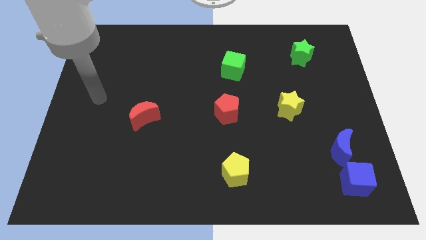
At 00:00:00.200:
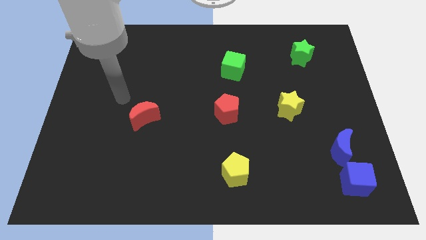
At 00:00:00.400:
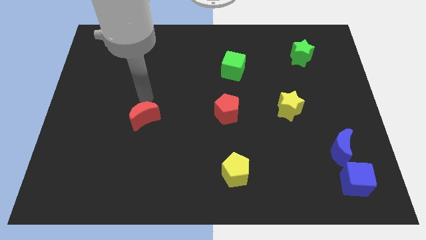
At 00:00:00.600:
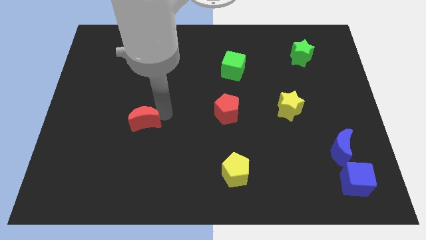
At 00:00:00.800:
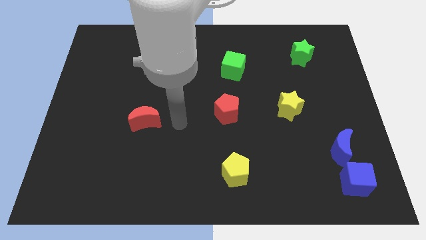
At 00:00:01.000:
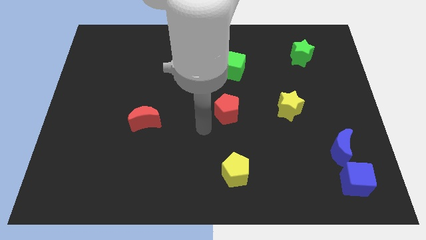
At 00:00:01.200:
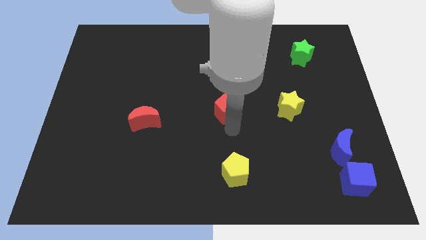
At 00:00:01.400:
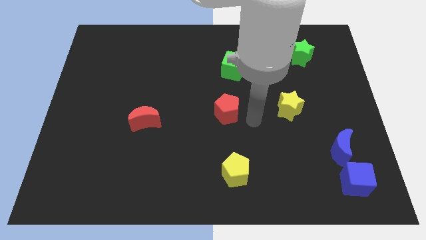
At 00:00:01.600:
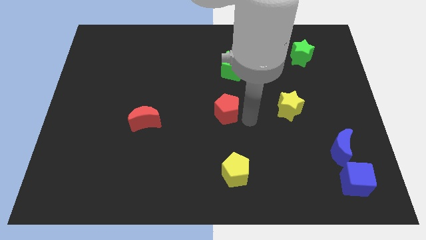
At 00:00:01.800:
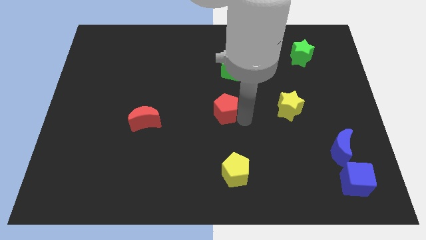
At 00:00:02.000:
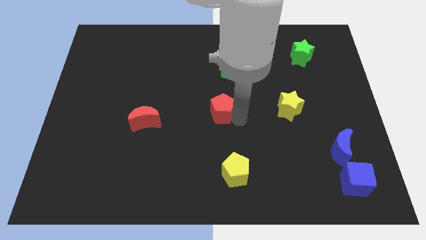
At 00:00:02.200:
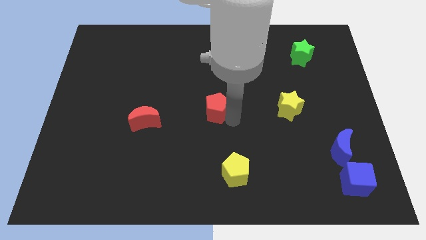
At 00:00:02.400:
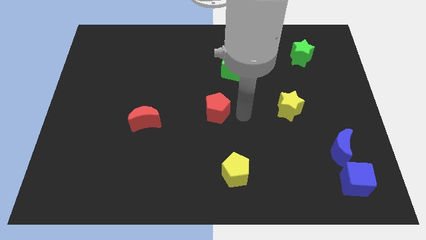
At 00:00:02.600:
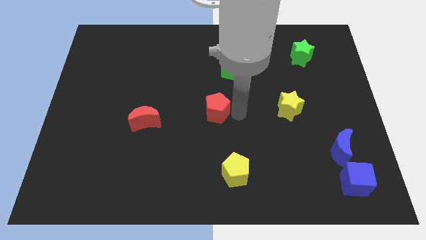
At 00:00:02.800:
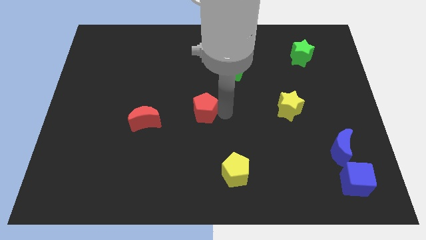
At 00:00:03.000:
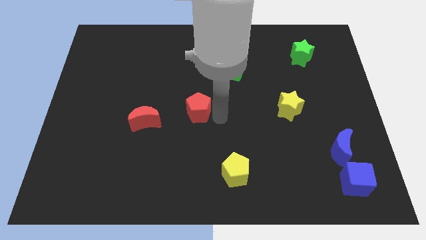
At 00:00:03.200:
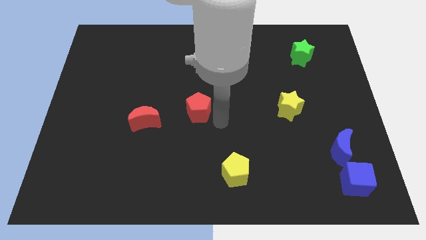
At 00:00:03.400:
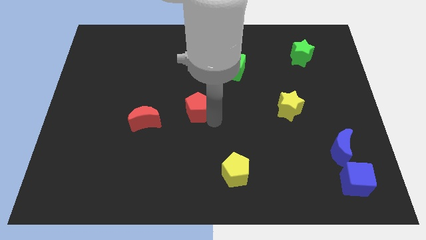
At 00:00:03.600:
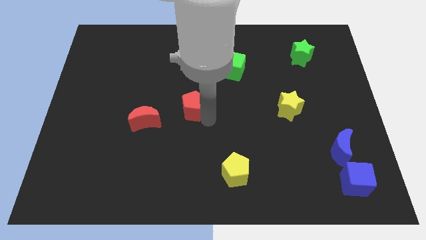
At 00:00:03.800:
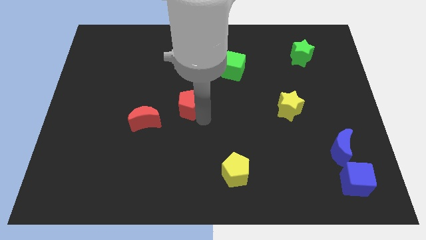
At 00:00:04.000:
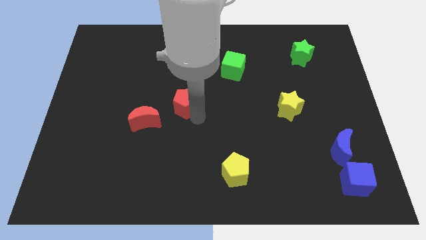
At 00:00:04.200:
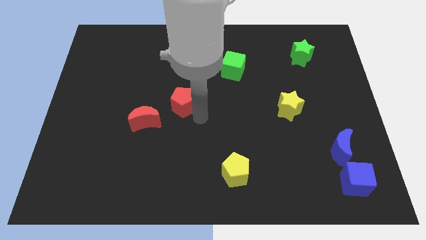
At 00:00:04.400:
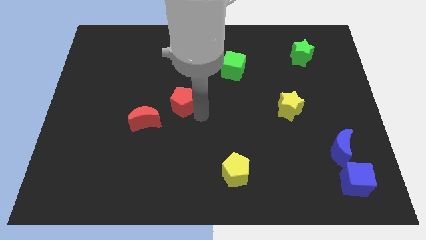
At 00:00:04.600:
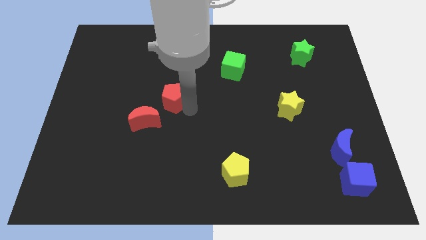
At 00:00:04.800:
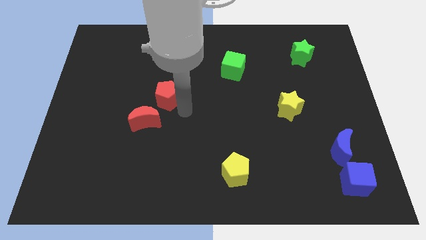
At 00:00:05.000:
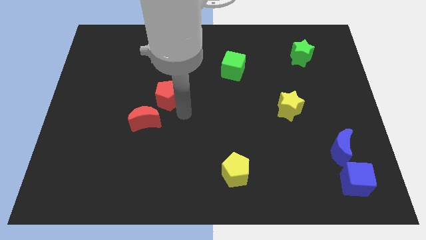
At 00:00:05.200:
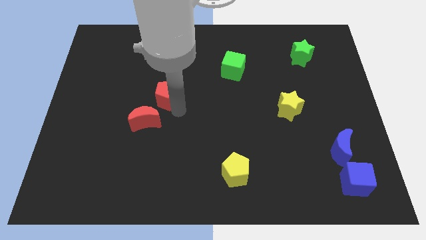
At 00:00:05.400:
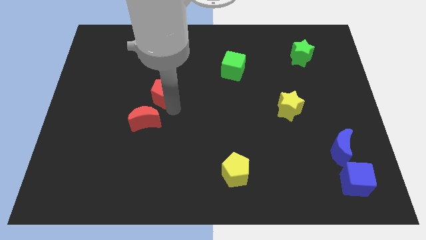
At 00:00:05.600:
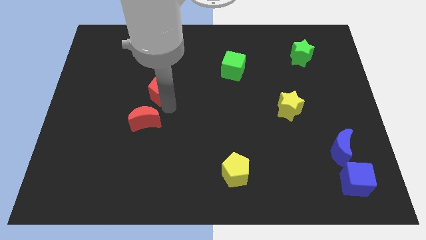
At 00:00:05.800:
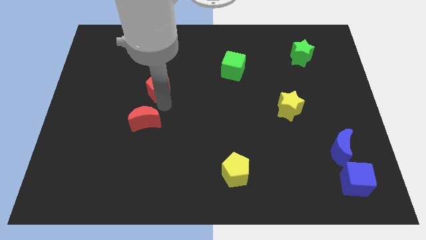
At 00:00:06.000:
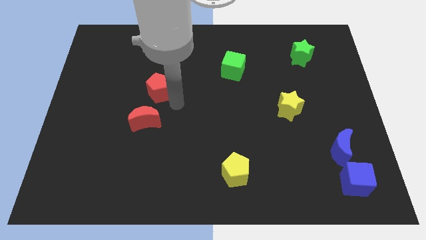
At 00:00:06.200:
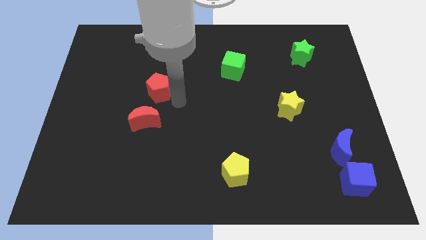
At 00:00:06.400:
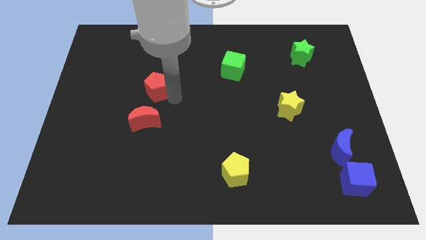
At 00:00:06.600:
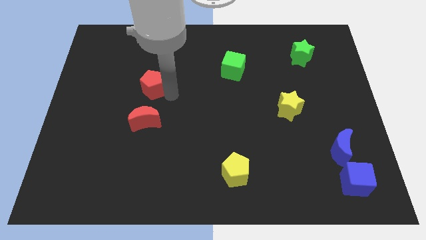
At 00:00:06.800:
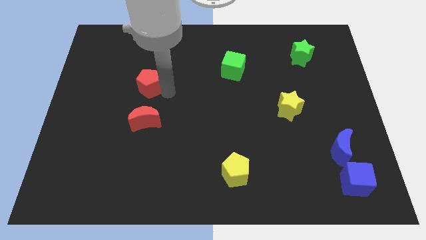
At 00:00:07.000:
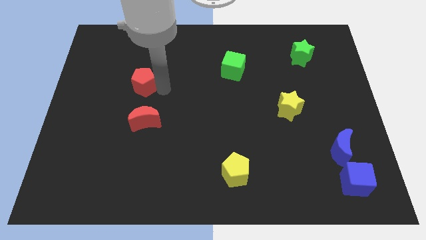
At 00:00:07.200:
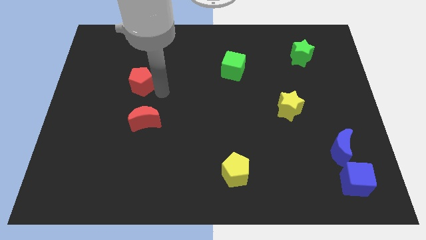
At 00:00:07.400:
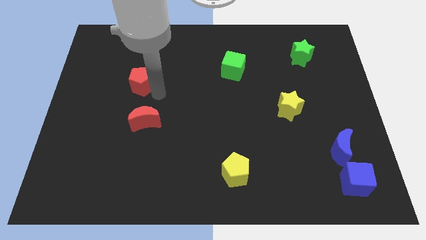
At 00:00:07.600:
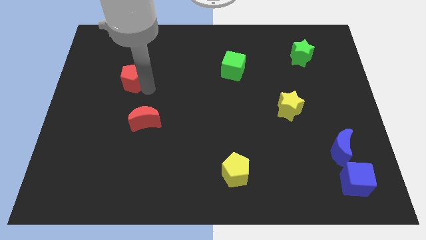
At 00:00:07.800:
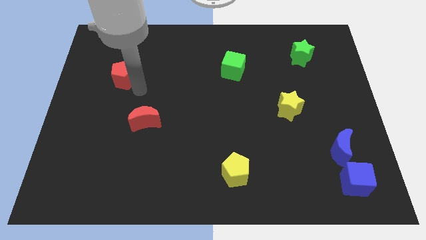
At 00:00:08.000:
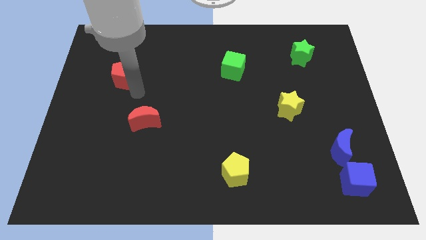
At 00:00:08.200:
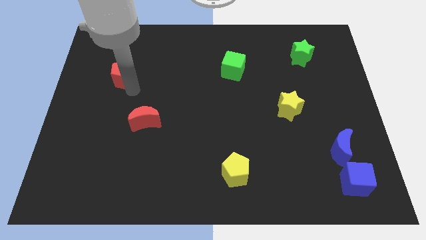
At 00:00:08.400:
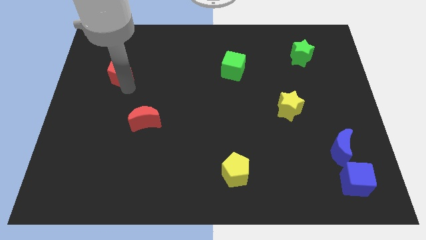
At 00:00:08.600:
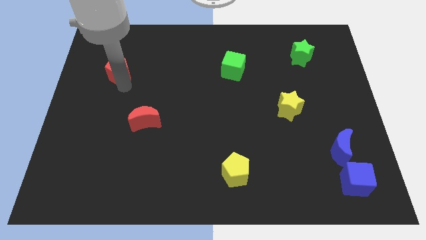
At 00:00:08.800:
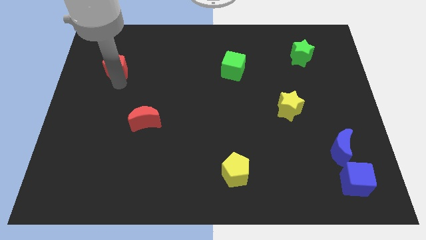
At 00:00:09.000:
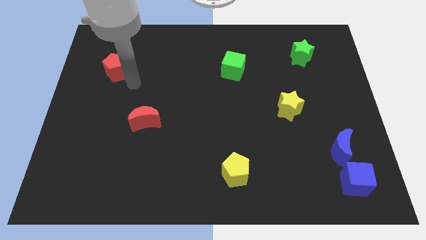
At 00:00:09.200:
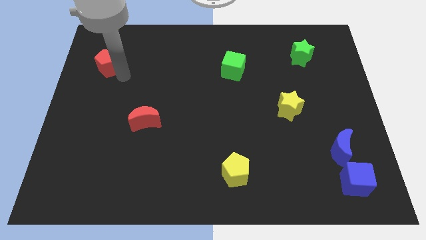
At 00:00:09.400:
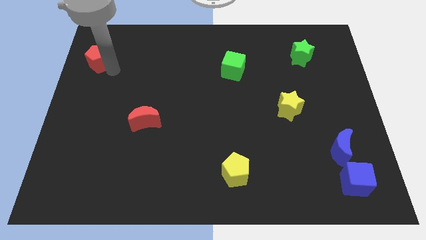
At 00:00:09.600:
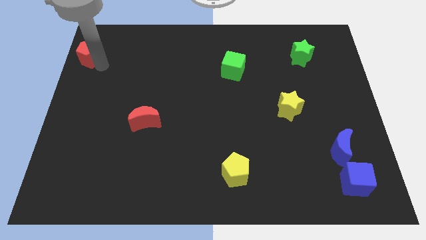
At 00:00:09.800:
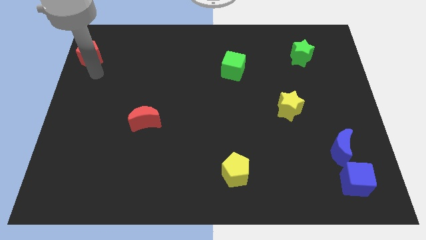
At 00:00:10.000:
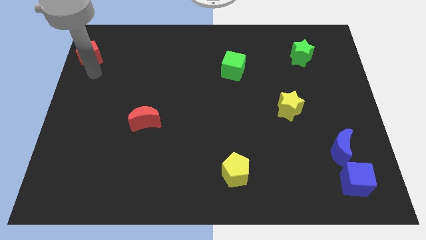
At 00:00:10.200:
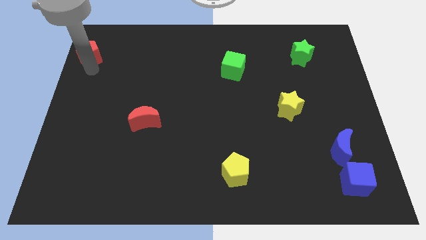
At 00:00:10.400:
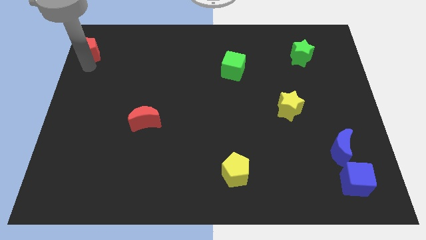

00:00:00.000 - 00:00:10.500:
put the red pentagon to the top left of the board
